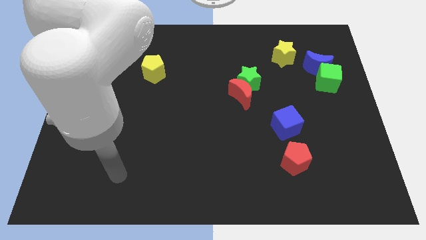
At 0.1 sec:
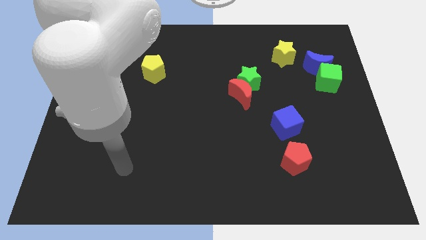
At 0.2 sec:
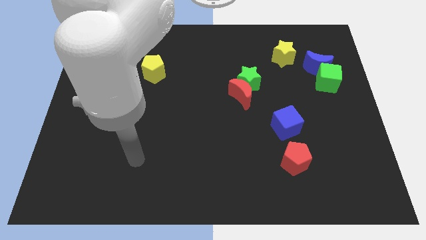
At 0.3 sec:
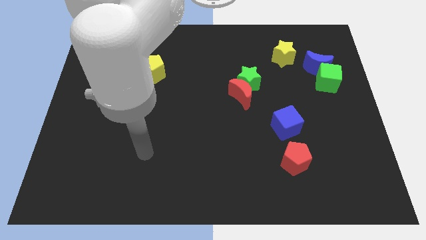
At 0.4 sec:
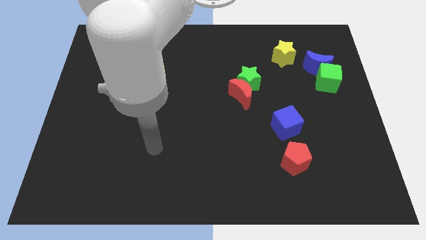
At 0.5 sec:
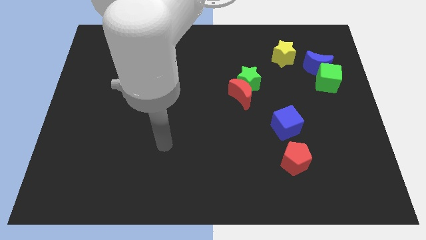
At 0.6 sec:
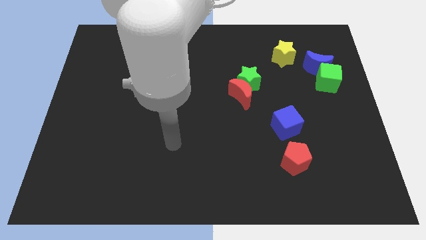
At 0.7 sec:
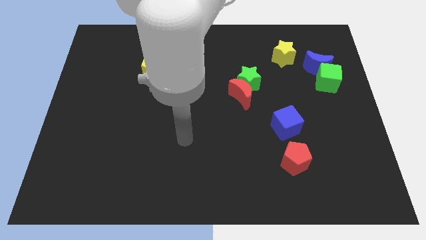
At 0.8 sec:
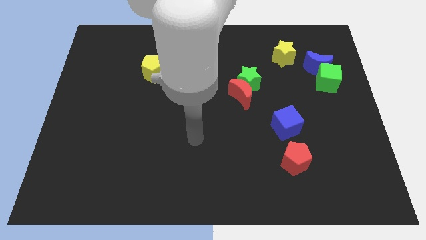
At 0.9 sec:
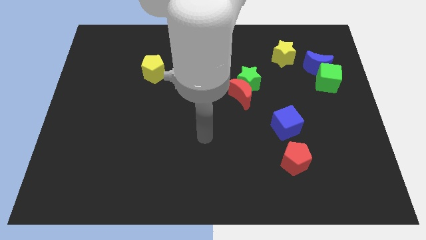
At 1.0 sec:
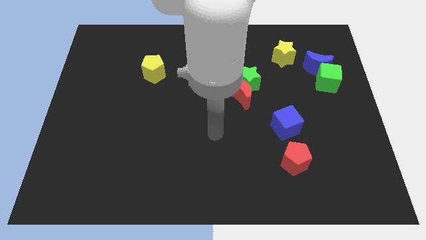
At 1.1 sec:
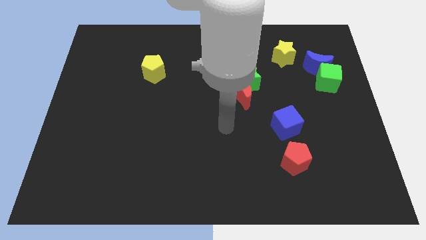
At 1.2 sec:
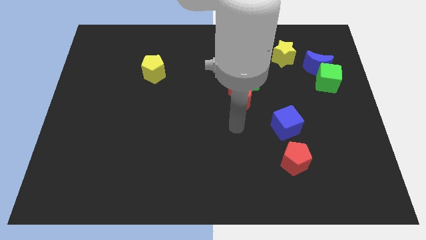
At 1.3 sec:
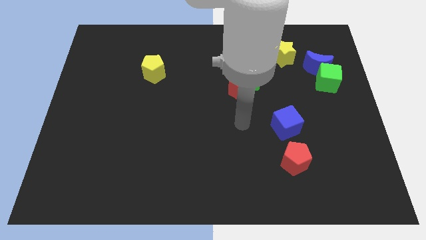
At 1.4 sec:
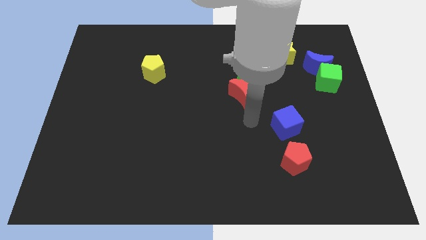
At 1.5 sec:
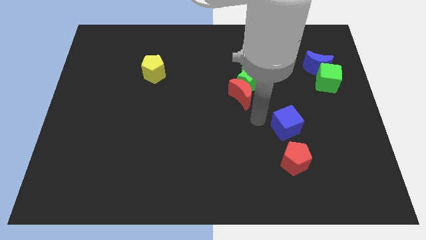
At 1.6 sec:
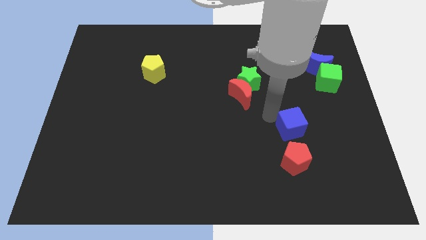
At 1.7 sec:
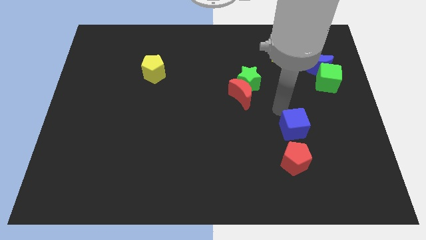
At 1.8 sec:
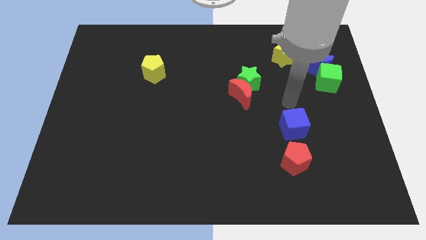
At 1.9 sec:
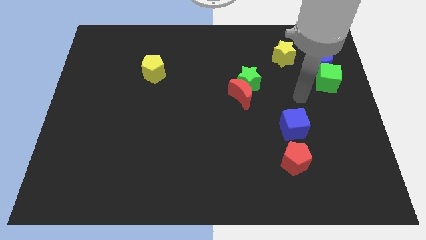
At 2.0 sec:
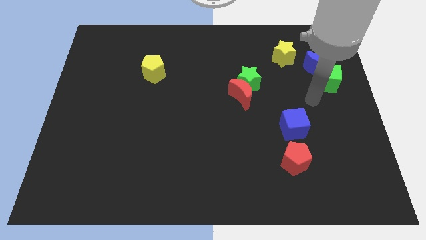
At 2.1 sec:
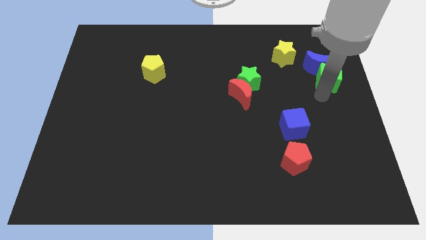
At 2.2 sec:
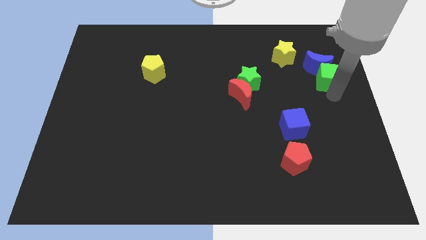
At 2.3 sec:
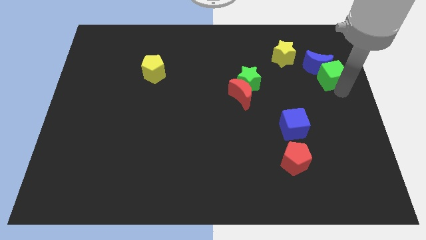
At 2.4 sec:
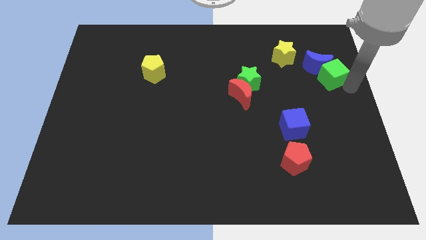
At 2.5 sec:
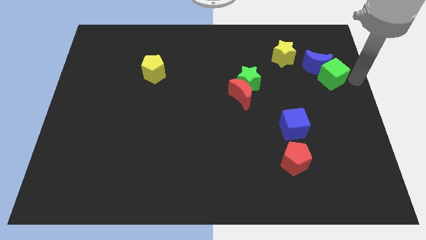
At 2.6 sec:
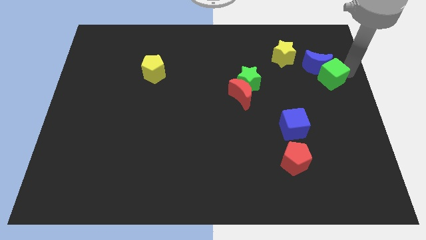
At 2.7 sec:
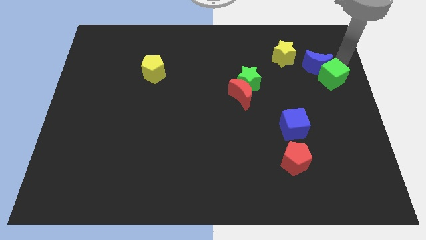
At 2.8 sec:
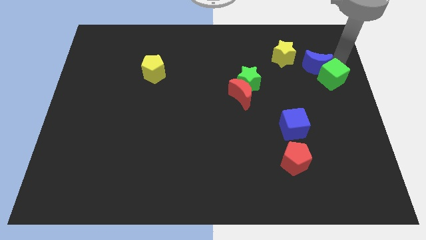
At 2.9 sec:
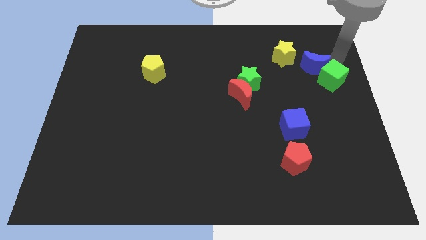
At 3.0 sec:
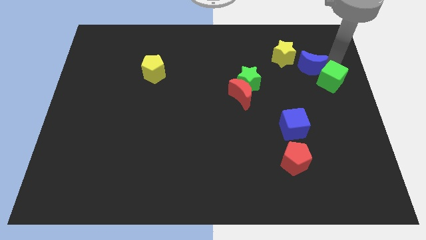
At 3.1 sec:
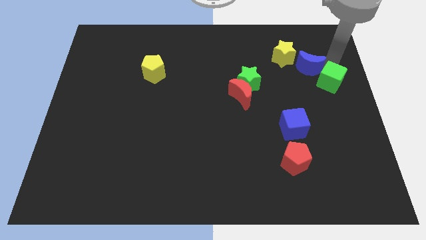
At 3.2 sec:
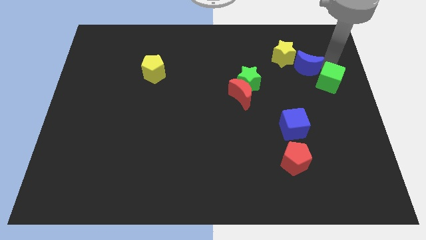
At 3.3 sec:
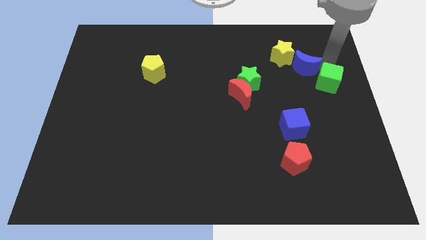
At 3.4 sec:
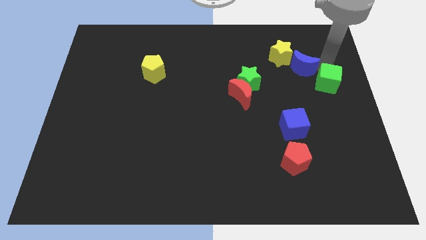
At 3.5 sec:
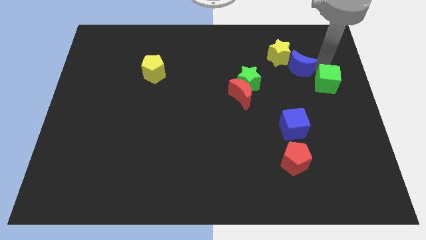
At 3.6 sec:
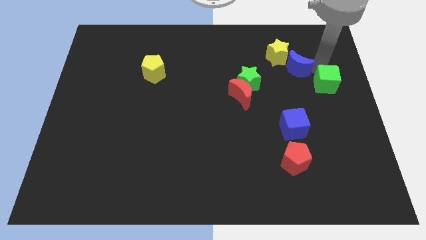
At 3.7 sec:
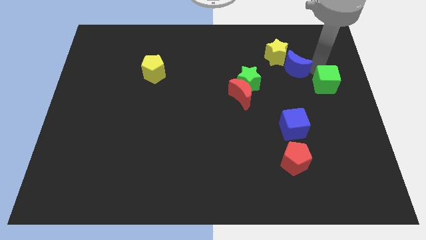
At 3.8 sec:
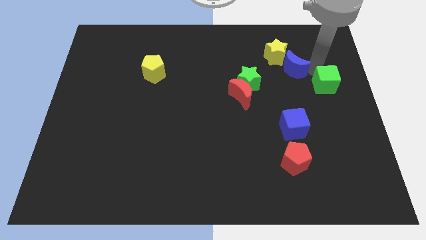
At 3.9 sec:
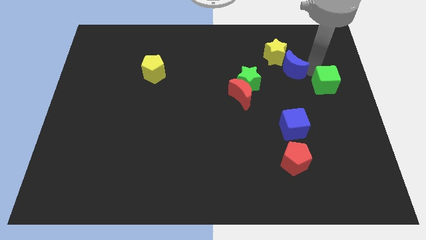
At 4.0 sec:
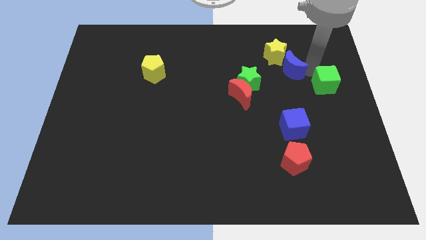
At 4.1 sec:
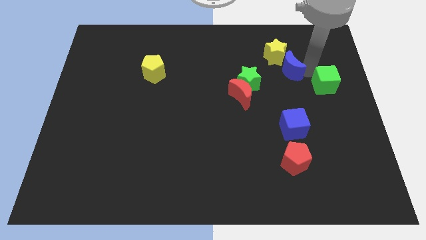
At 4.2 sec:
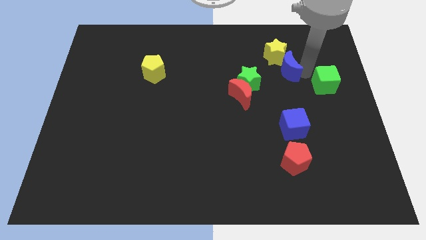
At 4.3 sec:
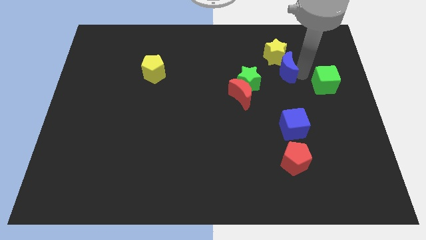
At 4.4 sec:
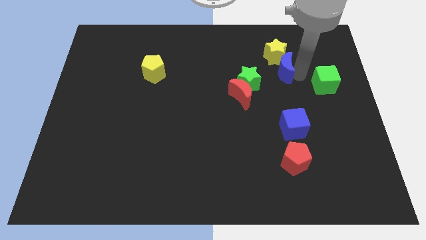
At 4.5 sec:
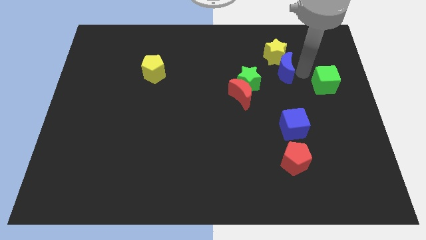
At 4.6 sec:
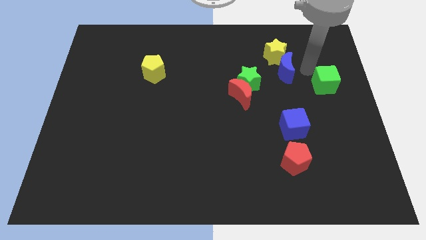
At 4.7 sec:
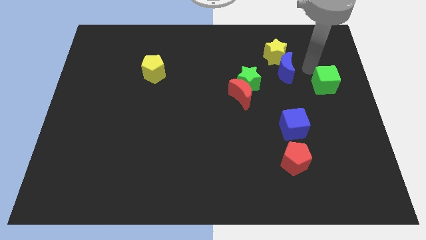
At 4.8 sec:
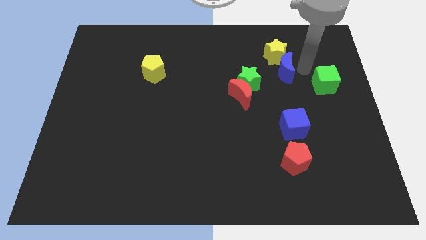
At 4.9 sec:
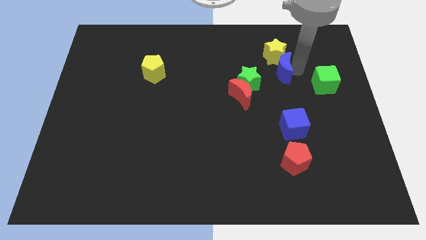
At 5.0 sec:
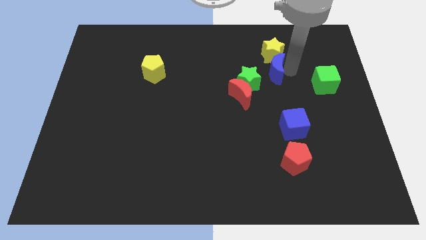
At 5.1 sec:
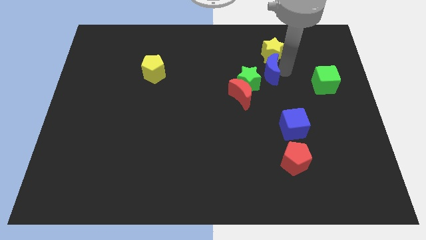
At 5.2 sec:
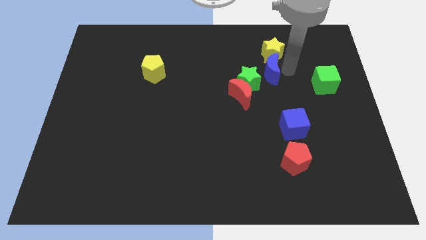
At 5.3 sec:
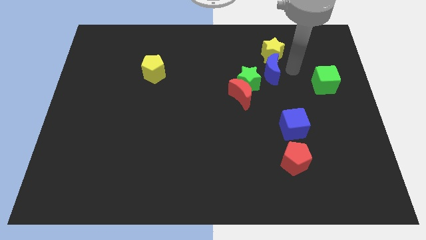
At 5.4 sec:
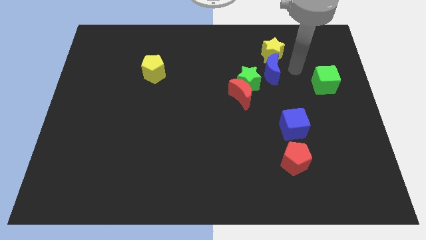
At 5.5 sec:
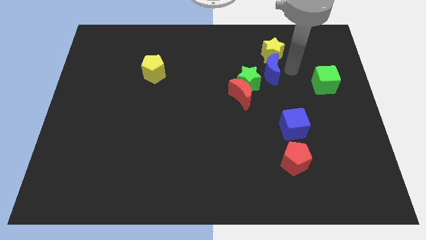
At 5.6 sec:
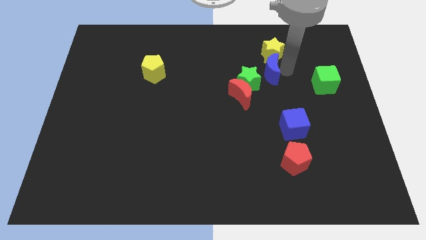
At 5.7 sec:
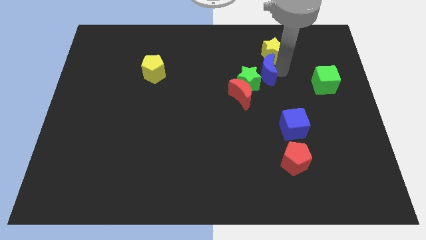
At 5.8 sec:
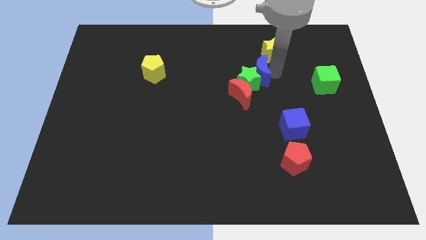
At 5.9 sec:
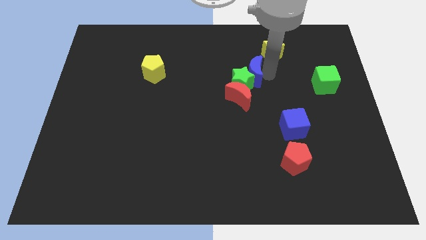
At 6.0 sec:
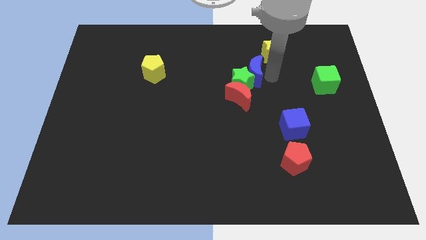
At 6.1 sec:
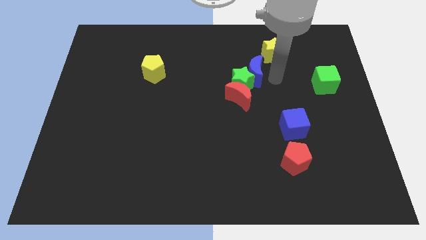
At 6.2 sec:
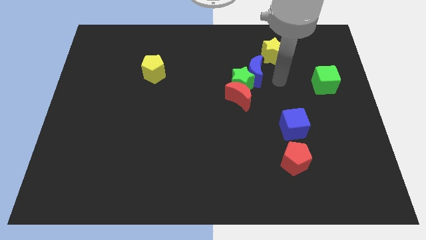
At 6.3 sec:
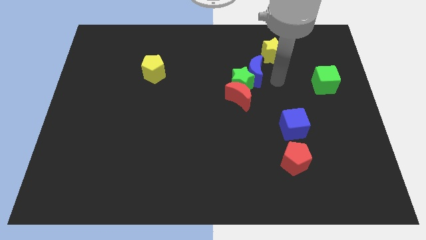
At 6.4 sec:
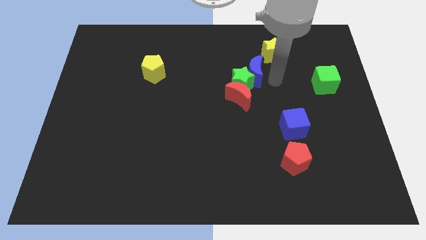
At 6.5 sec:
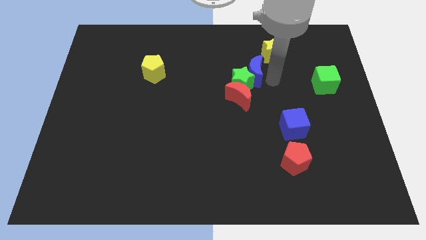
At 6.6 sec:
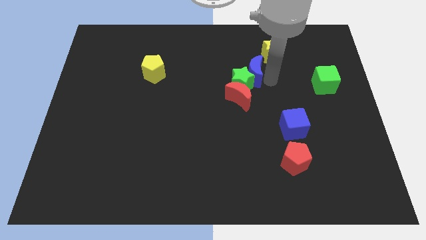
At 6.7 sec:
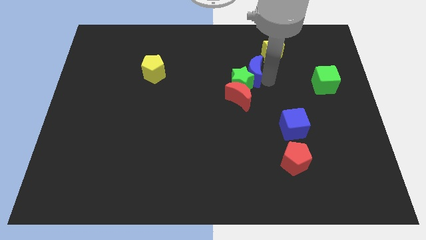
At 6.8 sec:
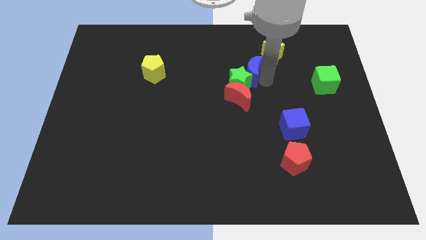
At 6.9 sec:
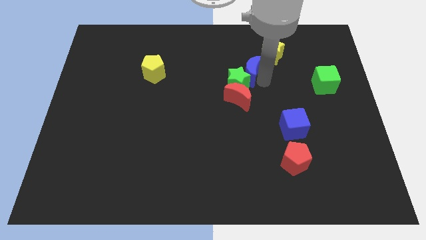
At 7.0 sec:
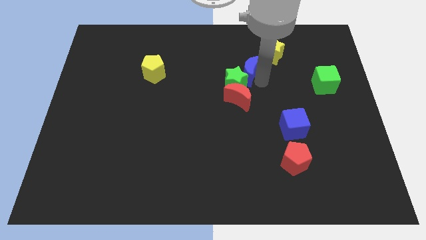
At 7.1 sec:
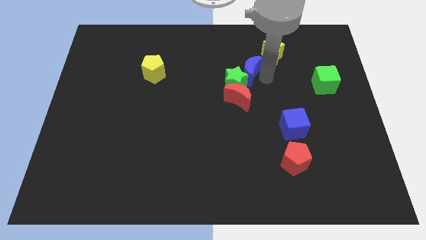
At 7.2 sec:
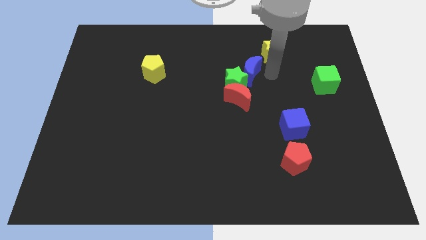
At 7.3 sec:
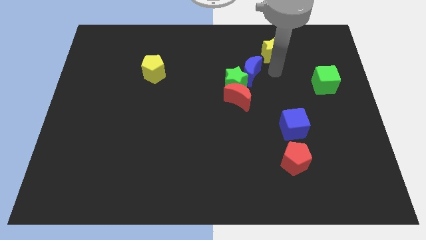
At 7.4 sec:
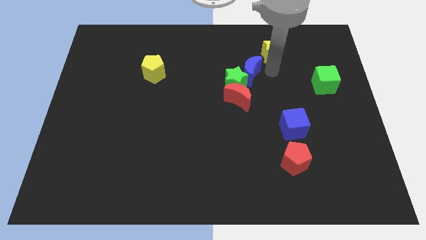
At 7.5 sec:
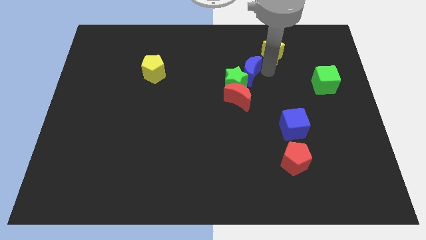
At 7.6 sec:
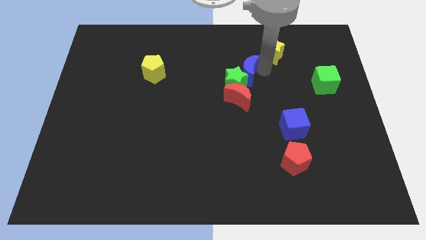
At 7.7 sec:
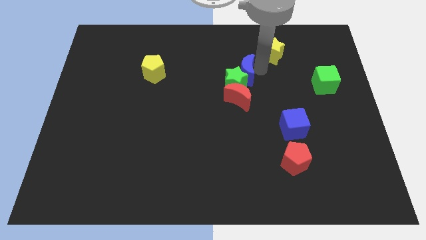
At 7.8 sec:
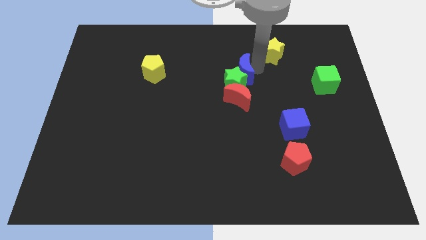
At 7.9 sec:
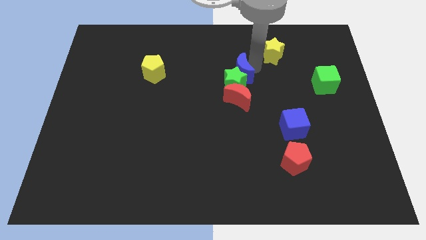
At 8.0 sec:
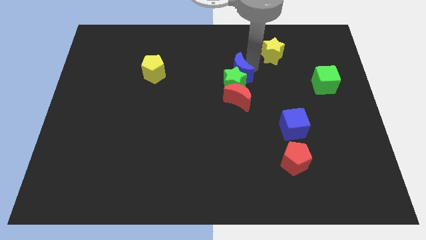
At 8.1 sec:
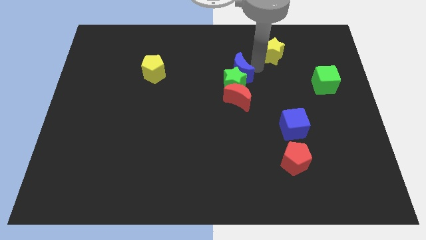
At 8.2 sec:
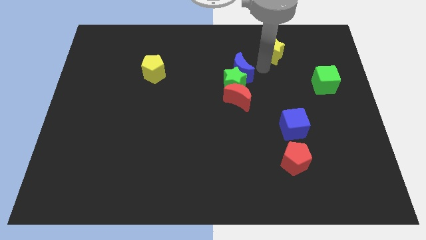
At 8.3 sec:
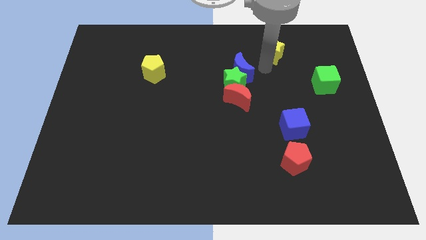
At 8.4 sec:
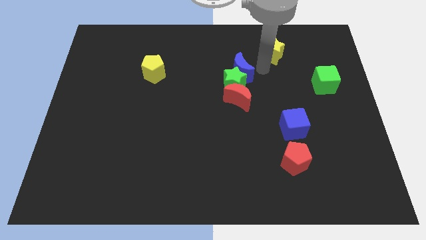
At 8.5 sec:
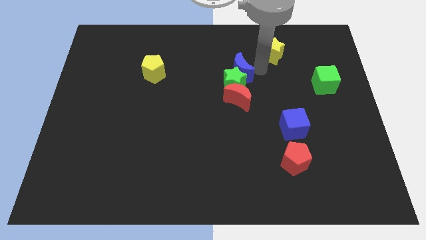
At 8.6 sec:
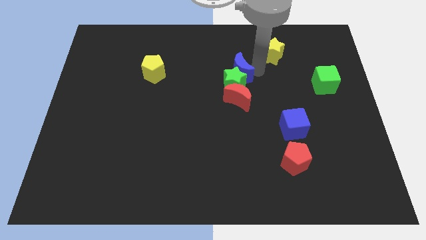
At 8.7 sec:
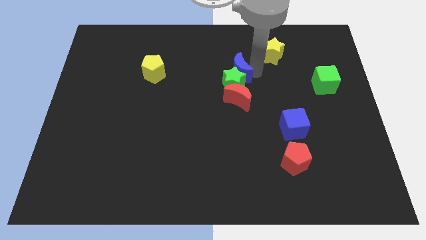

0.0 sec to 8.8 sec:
slide the blue moon left
